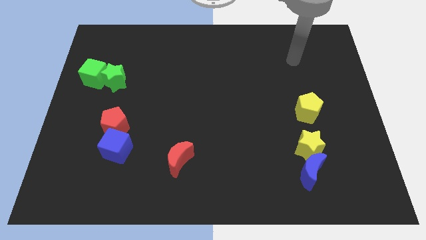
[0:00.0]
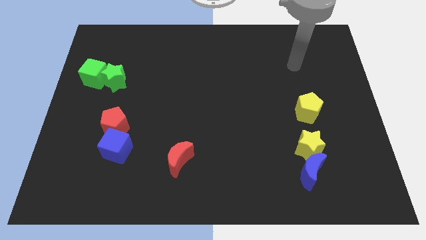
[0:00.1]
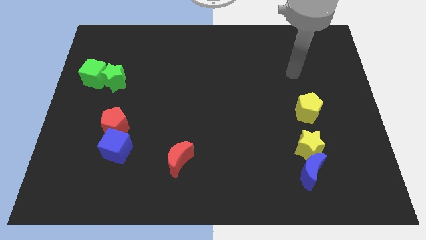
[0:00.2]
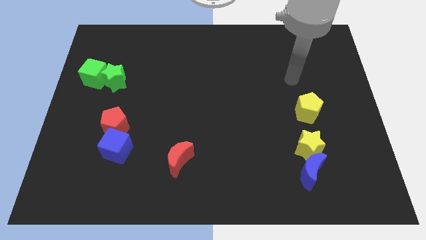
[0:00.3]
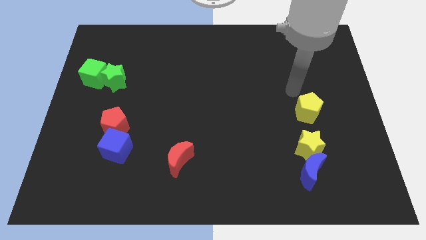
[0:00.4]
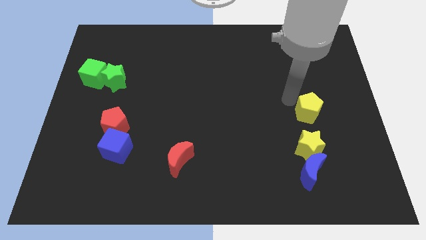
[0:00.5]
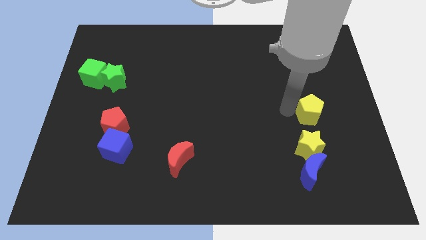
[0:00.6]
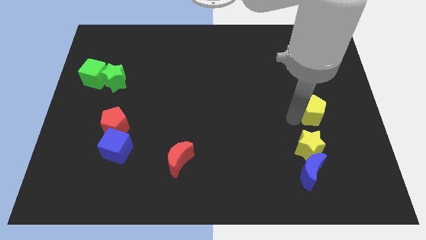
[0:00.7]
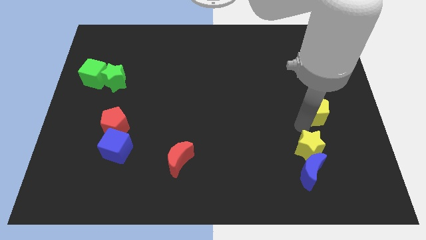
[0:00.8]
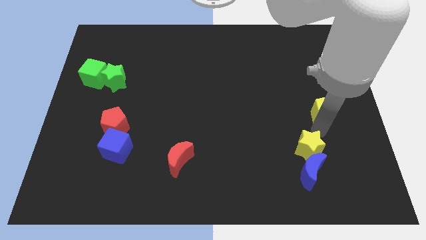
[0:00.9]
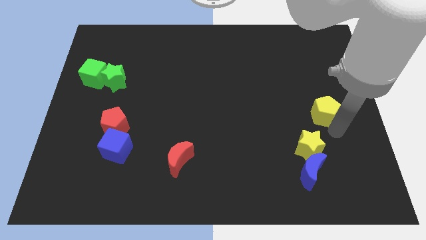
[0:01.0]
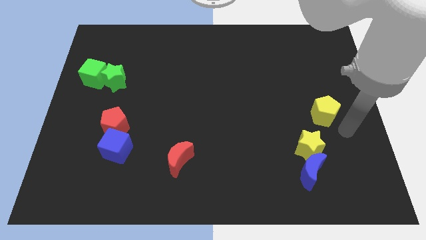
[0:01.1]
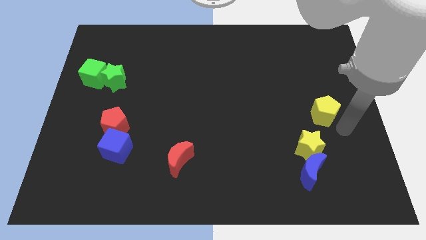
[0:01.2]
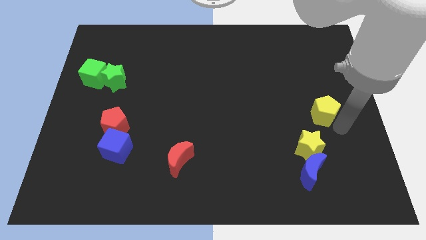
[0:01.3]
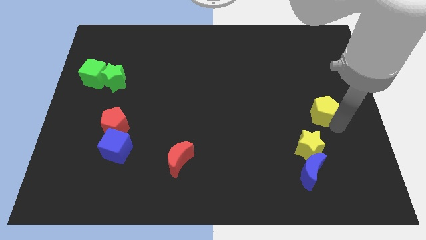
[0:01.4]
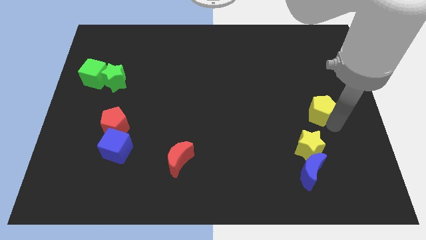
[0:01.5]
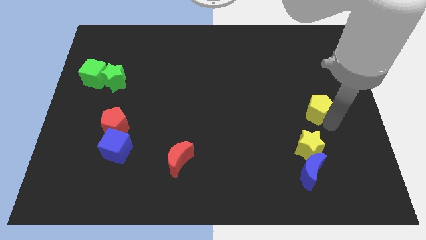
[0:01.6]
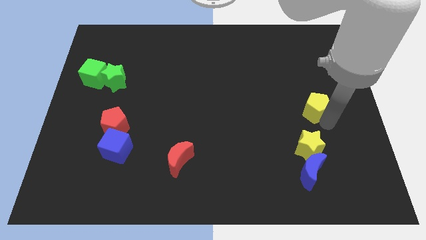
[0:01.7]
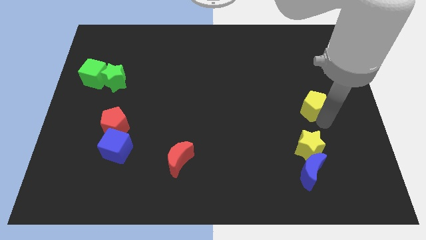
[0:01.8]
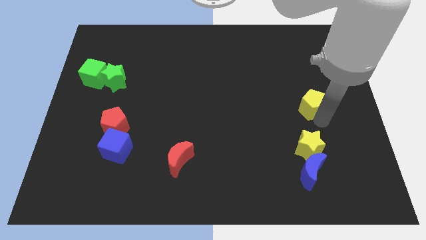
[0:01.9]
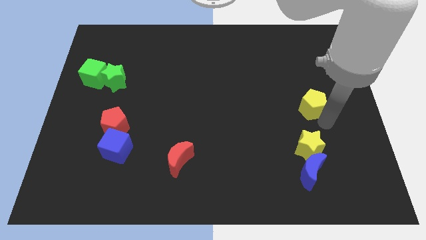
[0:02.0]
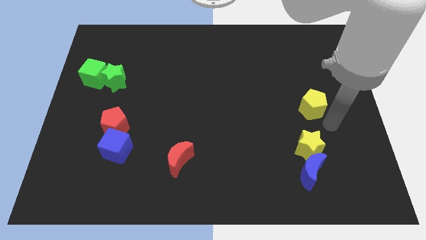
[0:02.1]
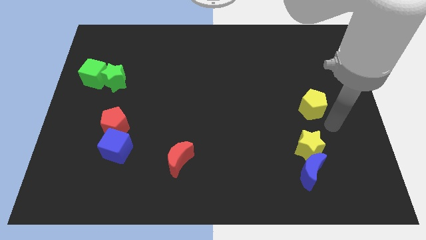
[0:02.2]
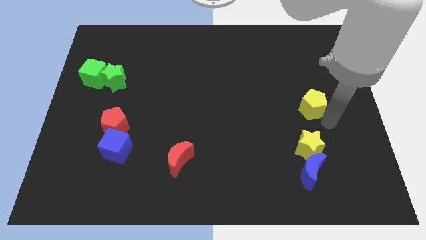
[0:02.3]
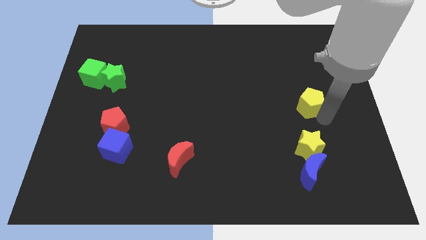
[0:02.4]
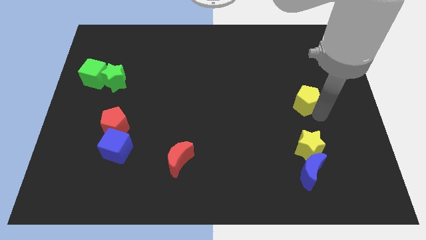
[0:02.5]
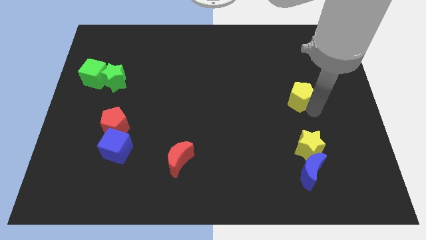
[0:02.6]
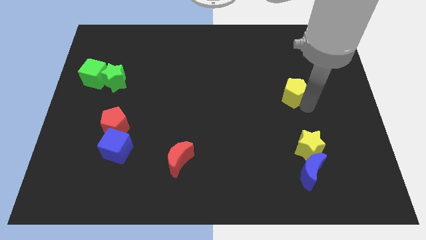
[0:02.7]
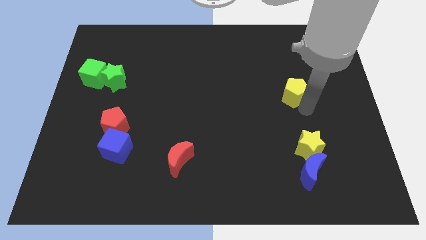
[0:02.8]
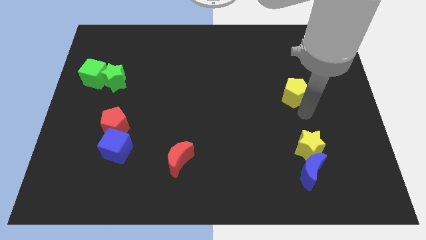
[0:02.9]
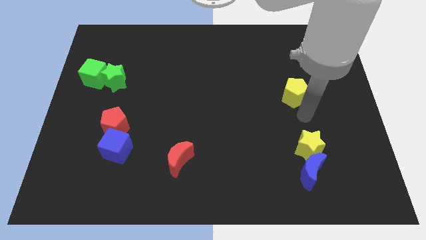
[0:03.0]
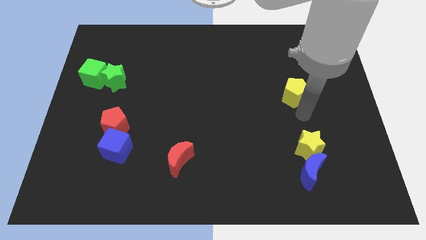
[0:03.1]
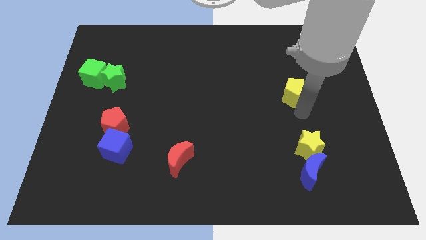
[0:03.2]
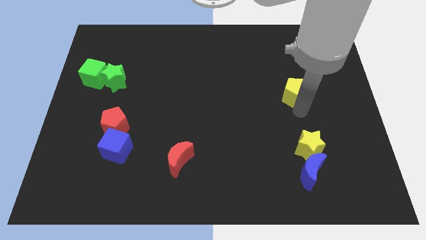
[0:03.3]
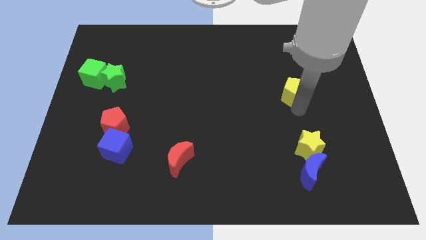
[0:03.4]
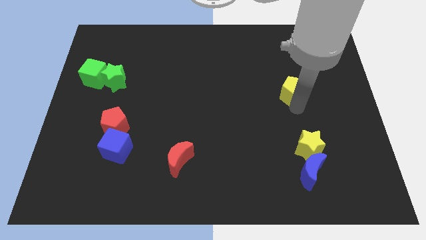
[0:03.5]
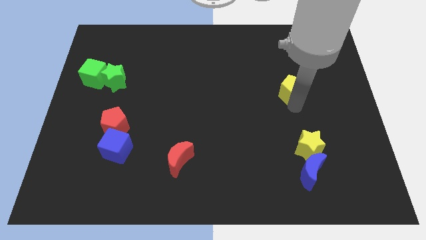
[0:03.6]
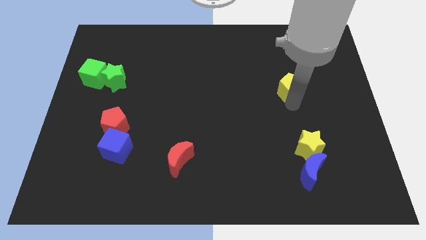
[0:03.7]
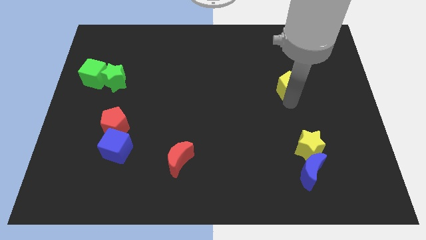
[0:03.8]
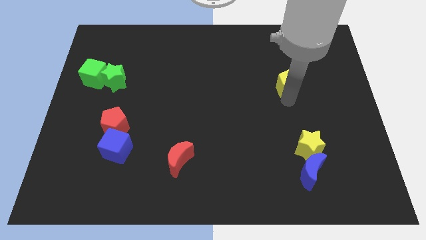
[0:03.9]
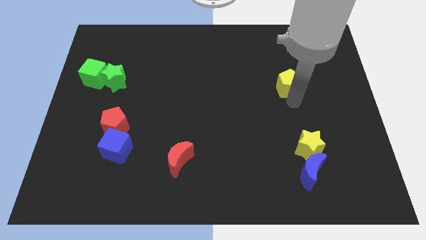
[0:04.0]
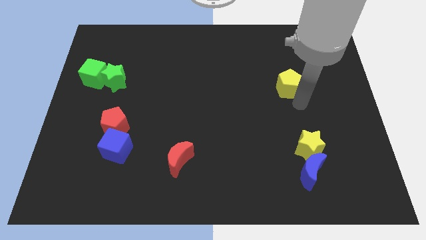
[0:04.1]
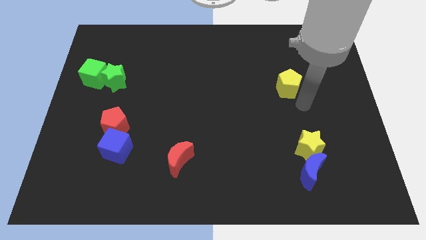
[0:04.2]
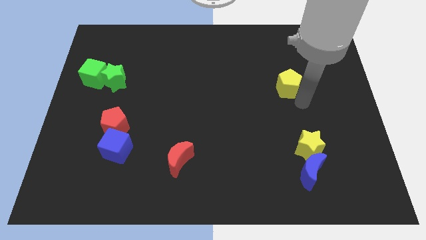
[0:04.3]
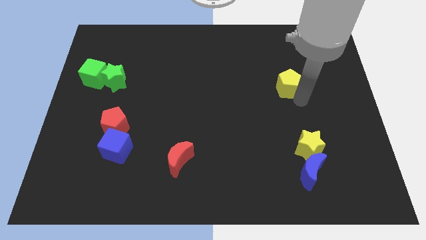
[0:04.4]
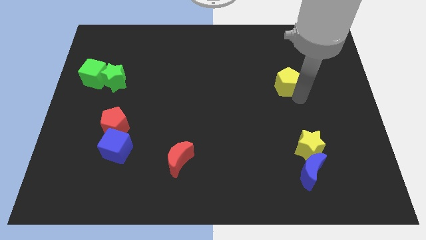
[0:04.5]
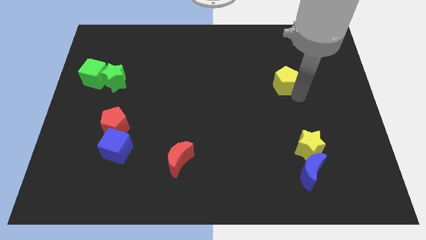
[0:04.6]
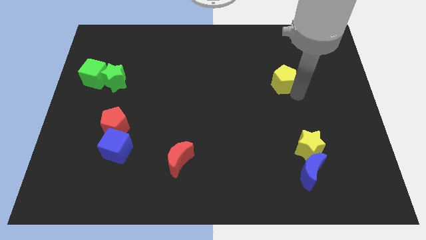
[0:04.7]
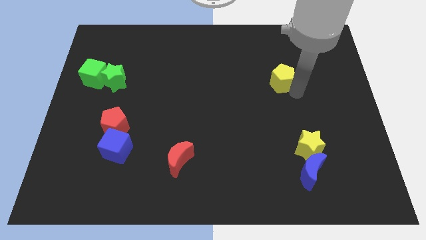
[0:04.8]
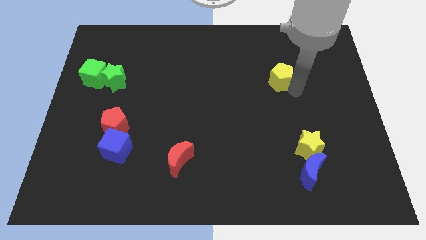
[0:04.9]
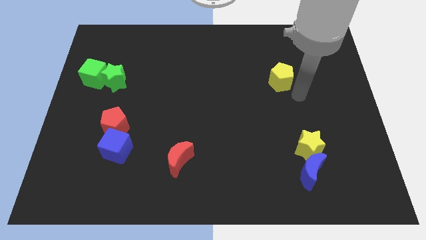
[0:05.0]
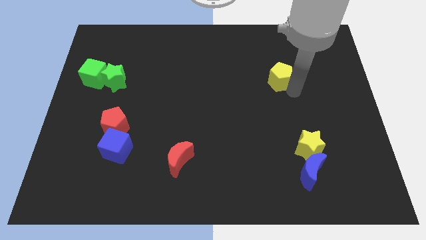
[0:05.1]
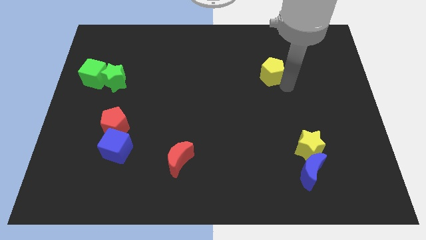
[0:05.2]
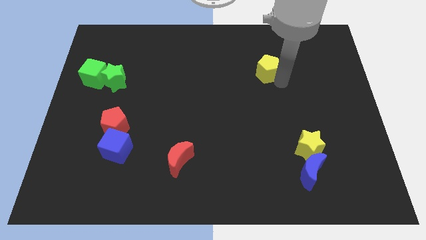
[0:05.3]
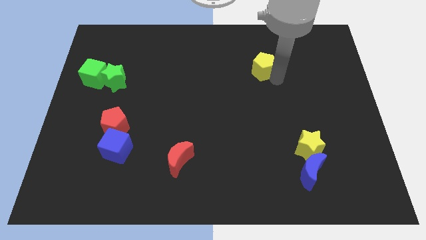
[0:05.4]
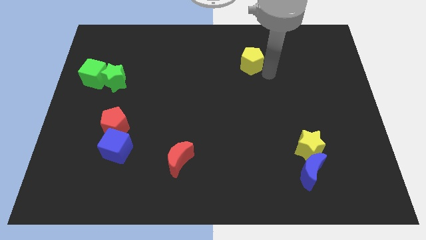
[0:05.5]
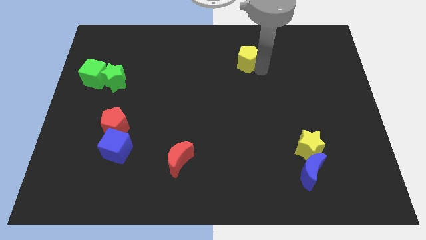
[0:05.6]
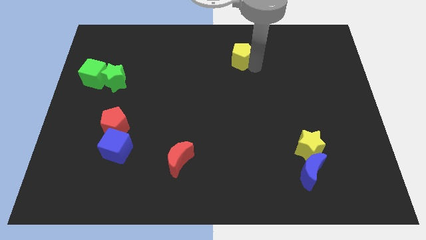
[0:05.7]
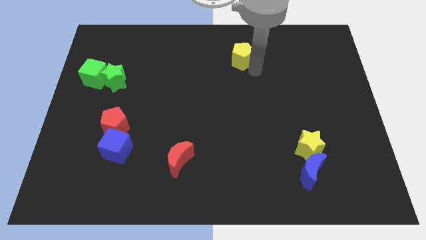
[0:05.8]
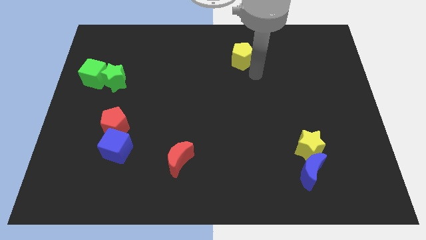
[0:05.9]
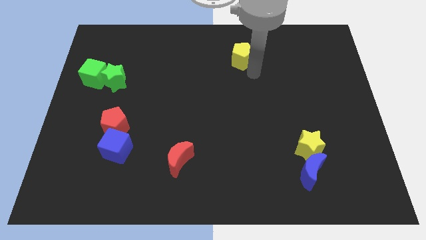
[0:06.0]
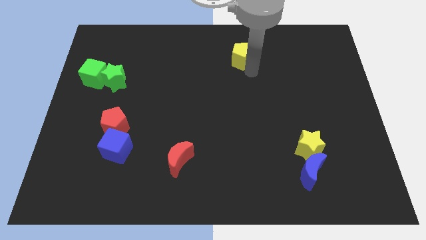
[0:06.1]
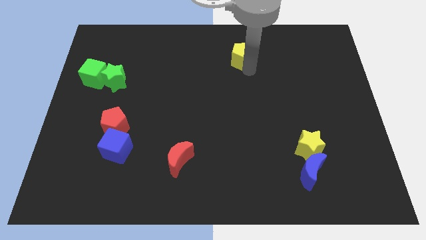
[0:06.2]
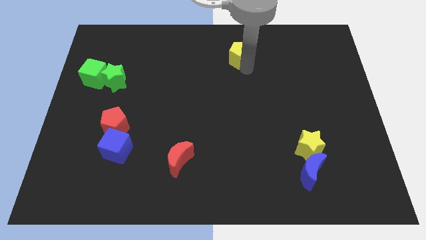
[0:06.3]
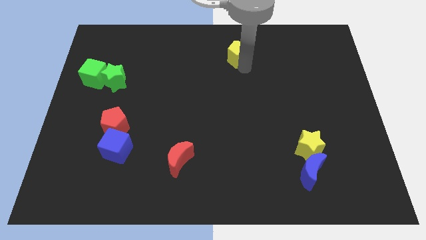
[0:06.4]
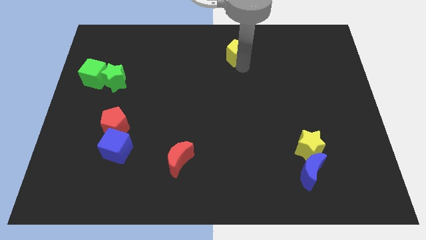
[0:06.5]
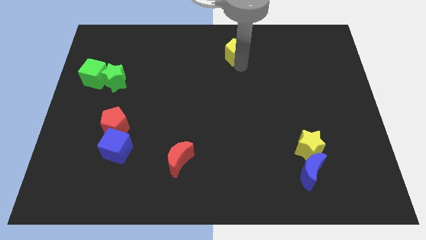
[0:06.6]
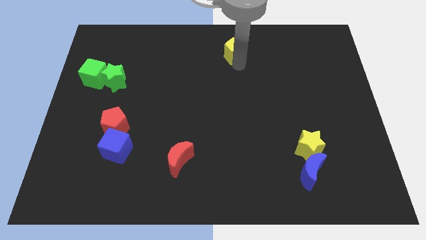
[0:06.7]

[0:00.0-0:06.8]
move the yellow pentagon to the top
